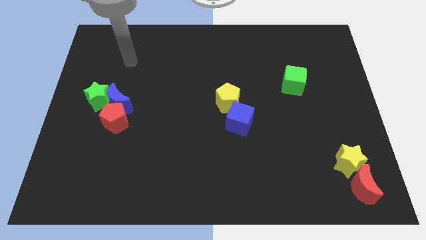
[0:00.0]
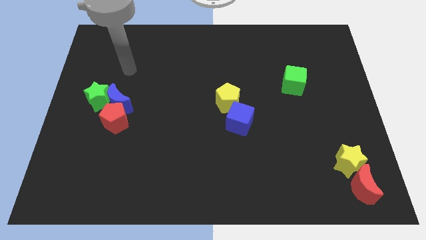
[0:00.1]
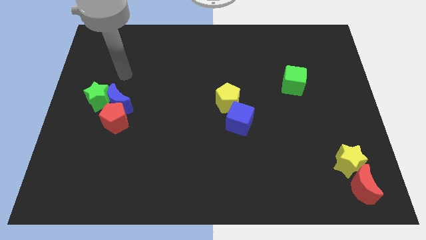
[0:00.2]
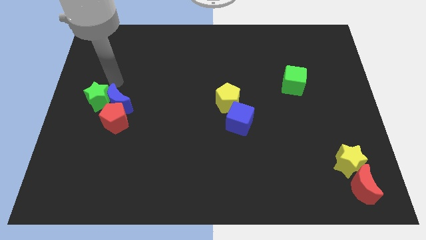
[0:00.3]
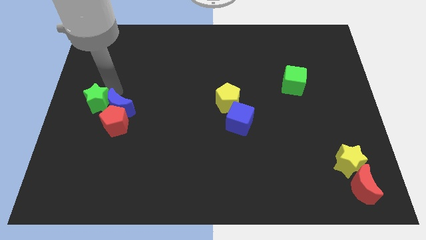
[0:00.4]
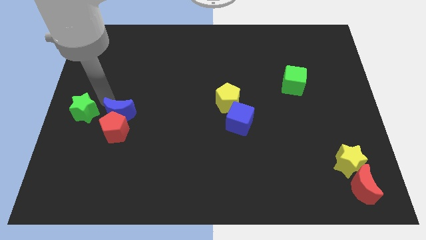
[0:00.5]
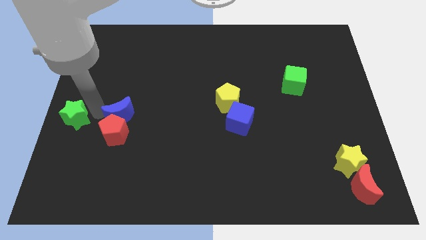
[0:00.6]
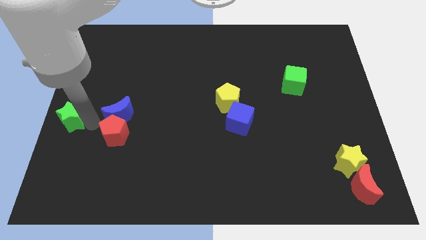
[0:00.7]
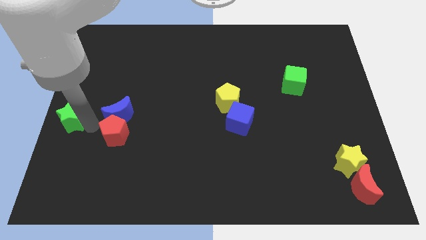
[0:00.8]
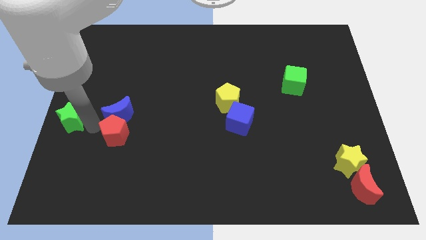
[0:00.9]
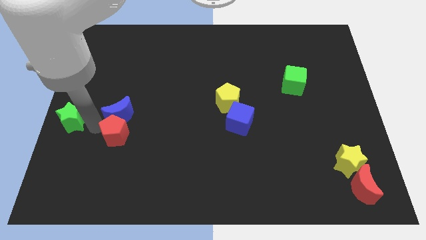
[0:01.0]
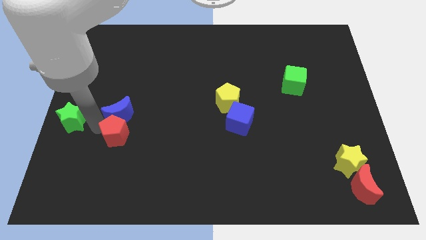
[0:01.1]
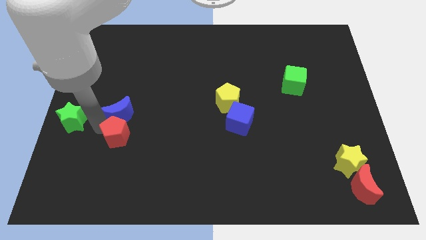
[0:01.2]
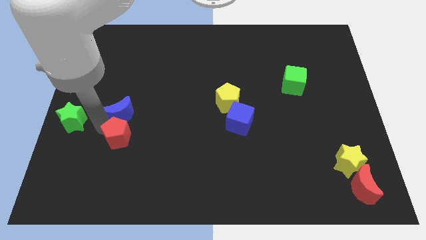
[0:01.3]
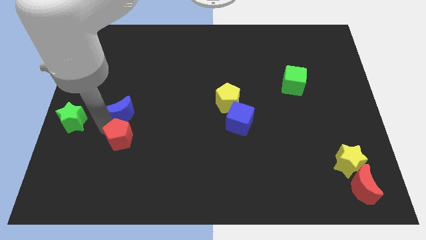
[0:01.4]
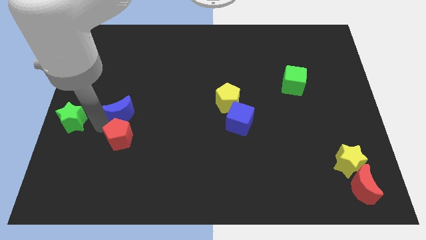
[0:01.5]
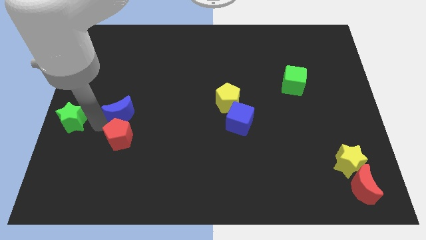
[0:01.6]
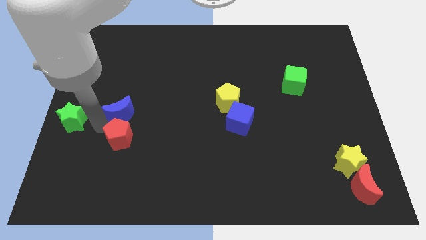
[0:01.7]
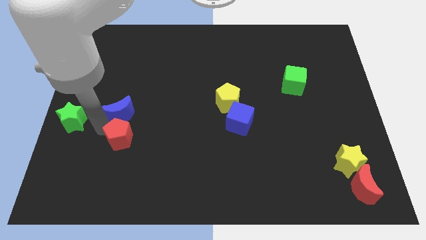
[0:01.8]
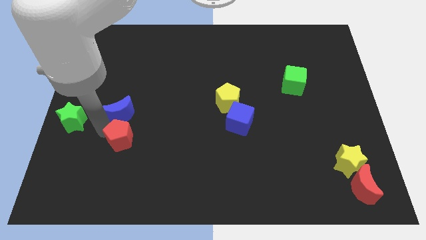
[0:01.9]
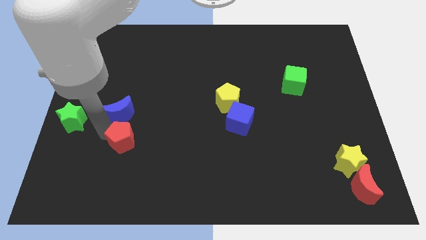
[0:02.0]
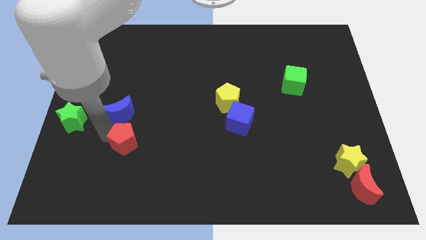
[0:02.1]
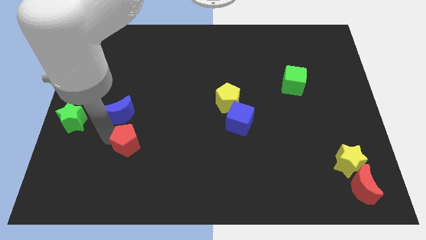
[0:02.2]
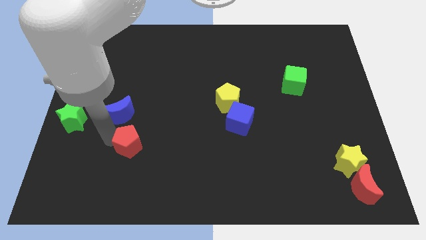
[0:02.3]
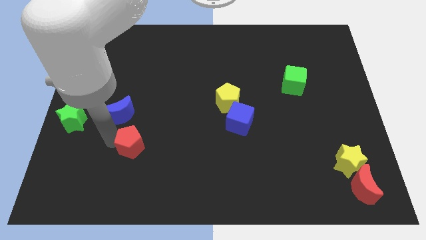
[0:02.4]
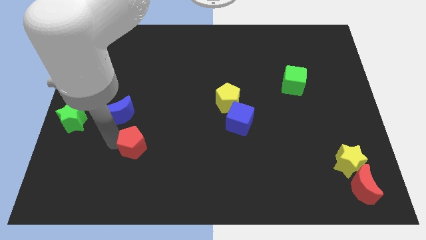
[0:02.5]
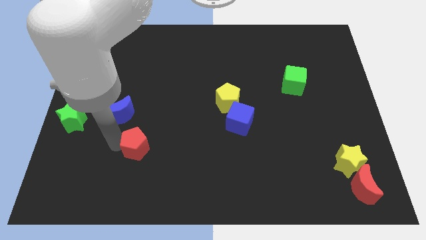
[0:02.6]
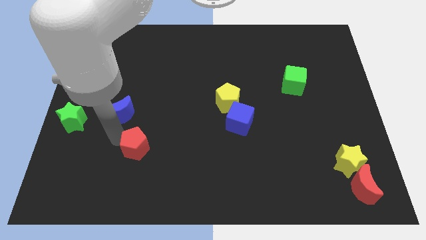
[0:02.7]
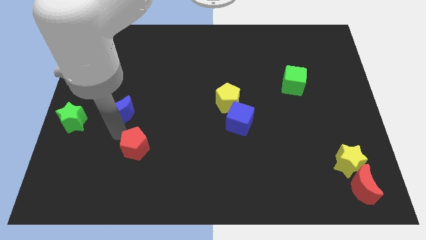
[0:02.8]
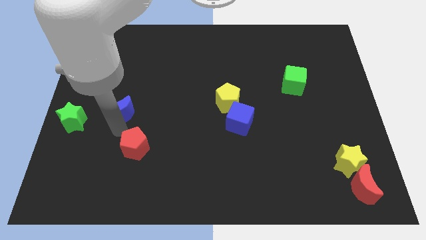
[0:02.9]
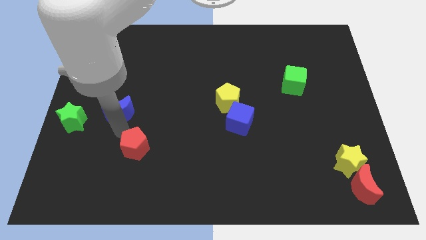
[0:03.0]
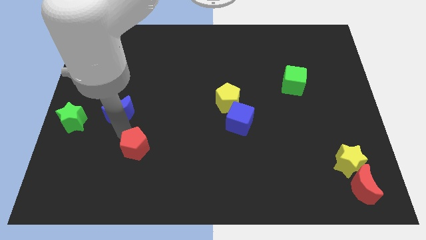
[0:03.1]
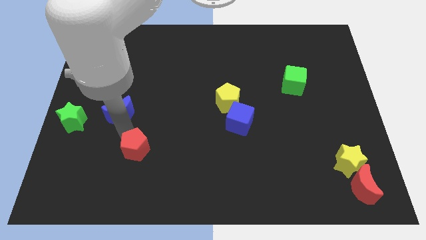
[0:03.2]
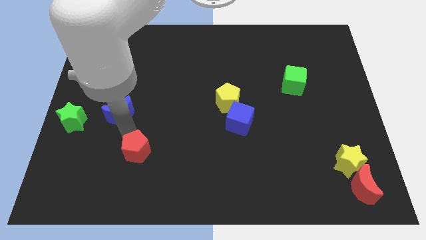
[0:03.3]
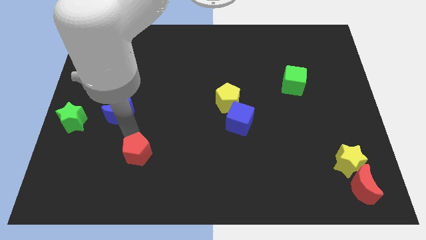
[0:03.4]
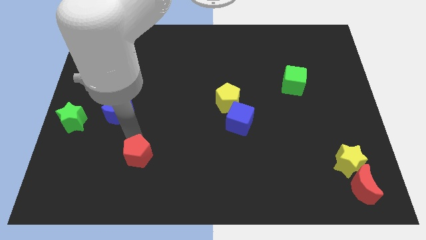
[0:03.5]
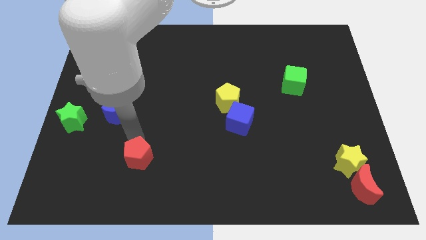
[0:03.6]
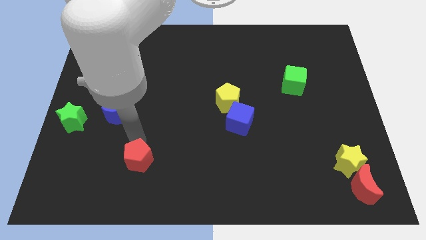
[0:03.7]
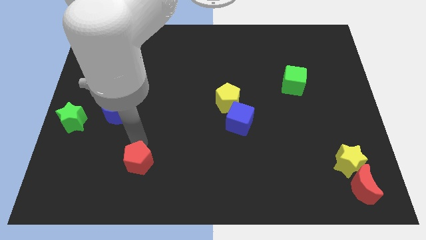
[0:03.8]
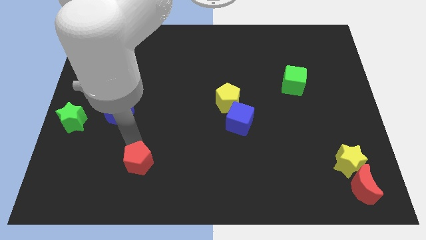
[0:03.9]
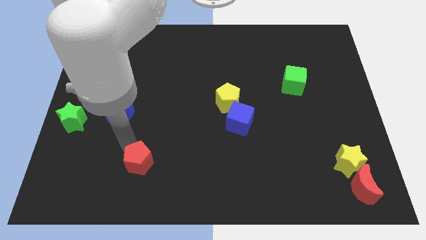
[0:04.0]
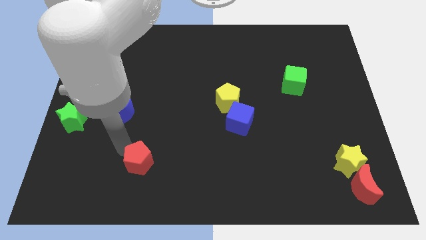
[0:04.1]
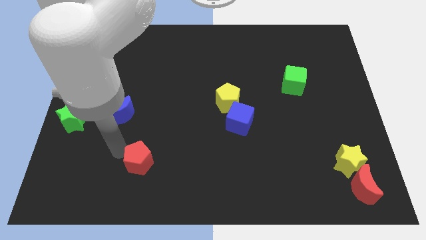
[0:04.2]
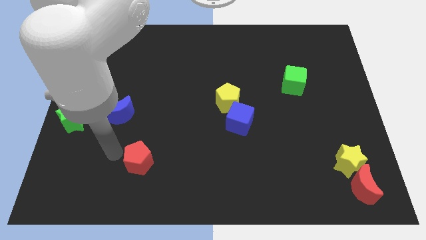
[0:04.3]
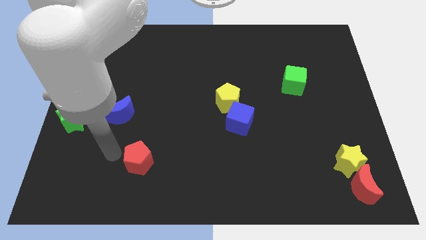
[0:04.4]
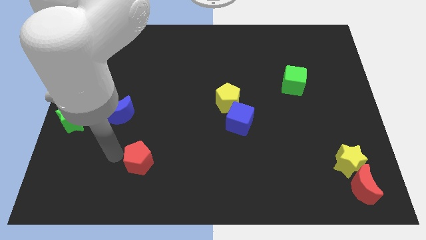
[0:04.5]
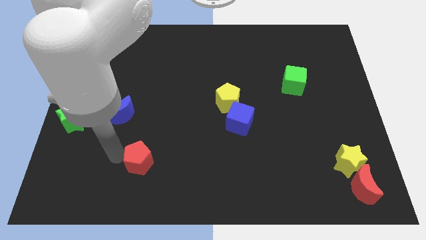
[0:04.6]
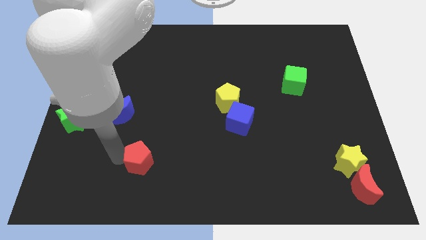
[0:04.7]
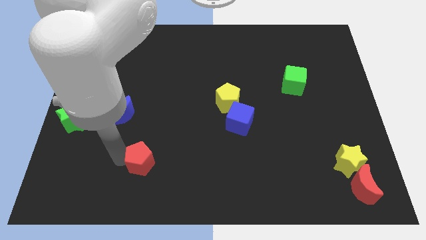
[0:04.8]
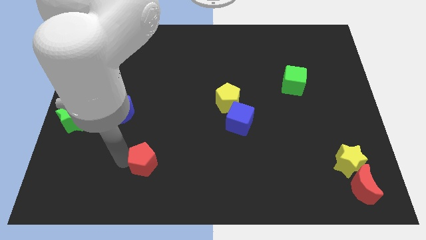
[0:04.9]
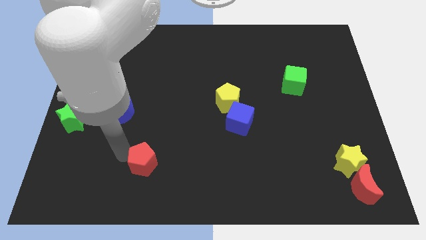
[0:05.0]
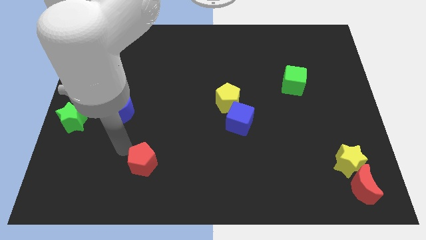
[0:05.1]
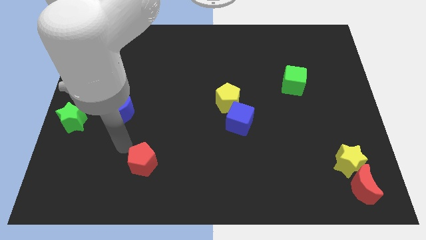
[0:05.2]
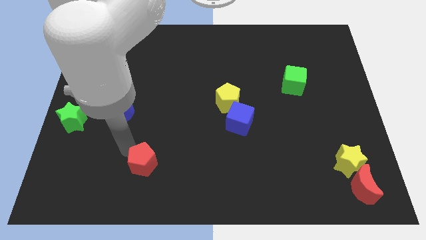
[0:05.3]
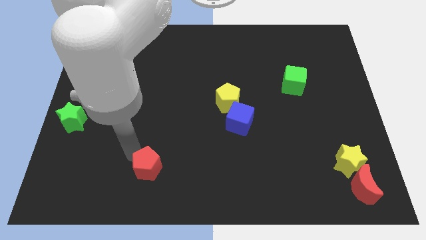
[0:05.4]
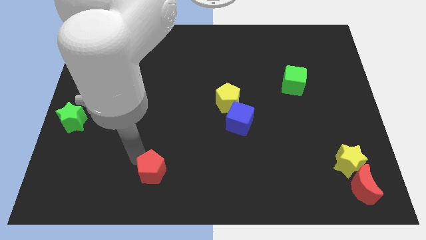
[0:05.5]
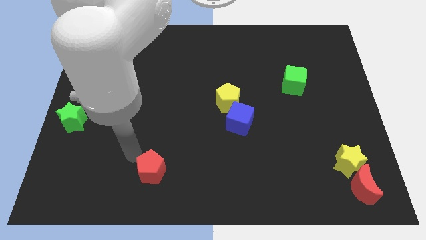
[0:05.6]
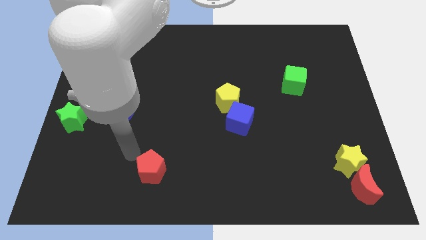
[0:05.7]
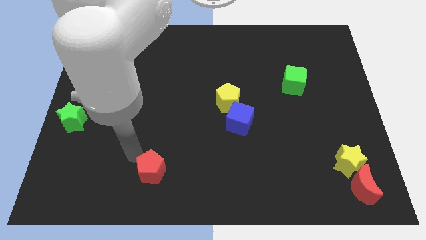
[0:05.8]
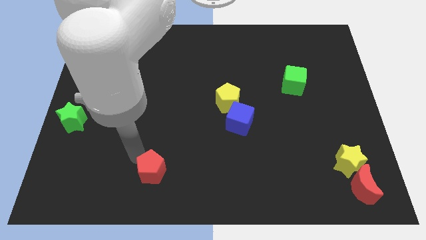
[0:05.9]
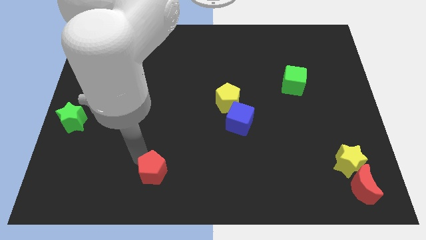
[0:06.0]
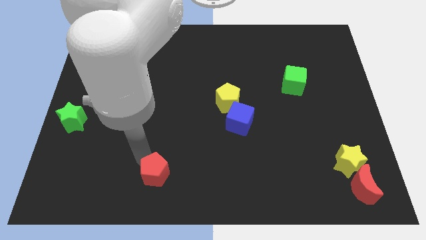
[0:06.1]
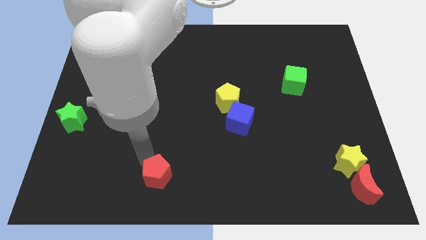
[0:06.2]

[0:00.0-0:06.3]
push the red pentagon to the bottom side

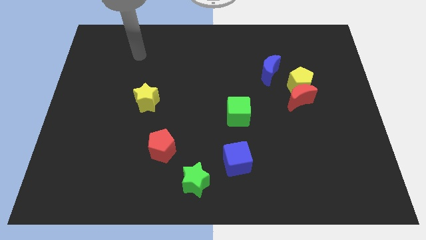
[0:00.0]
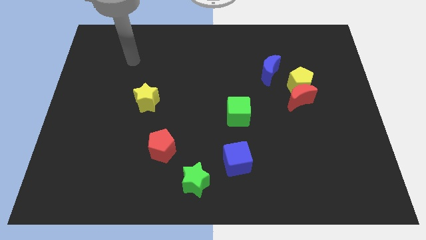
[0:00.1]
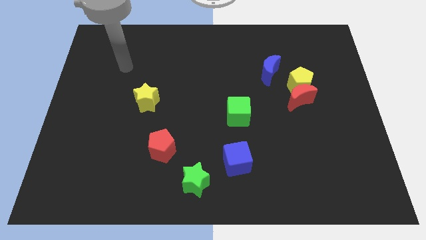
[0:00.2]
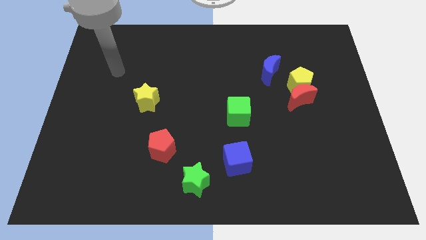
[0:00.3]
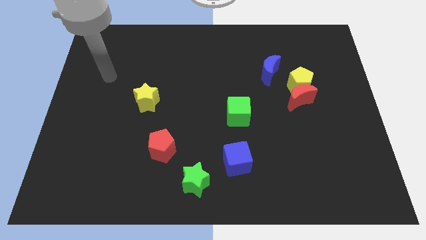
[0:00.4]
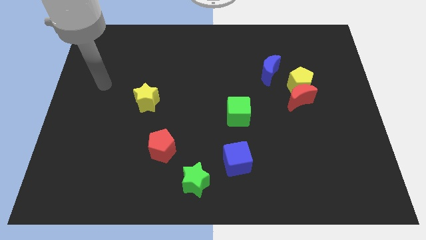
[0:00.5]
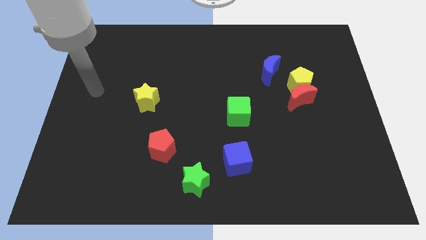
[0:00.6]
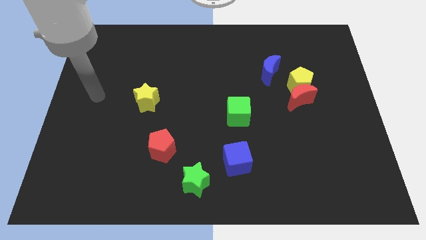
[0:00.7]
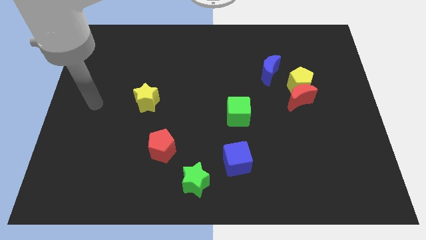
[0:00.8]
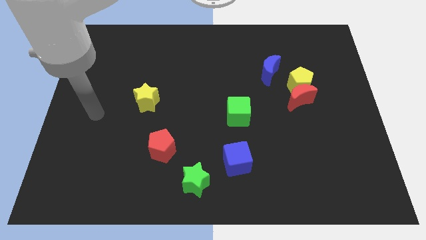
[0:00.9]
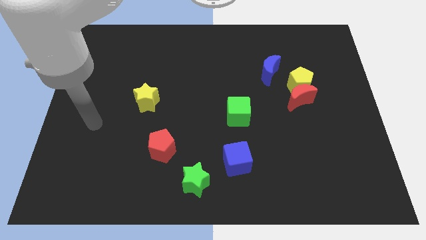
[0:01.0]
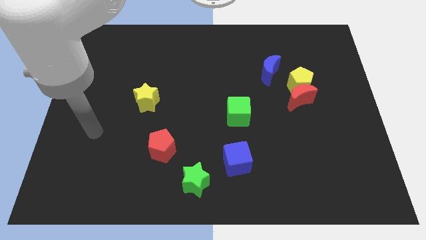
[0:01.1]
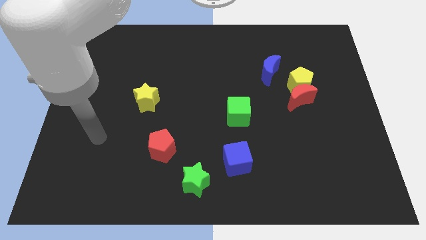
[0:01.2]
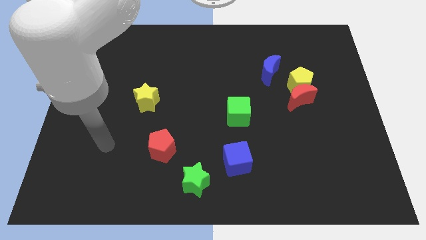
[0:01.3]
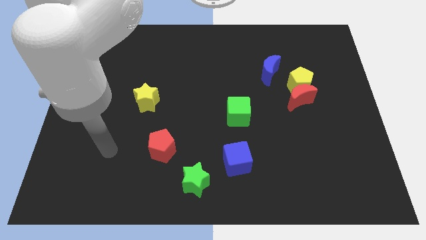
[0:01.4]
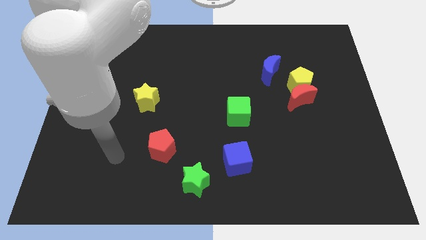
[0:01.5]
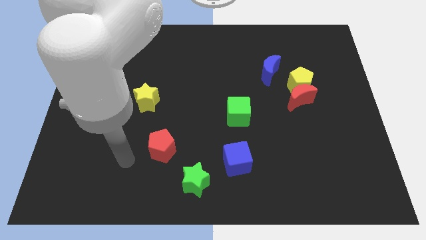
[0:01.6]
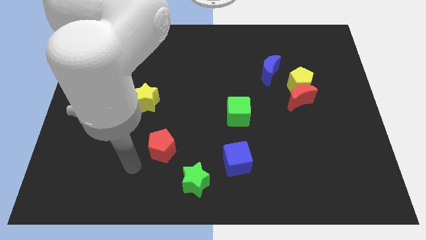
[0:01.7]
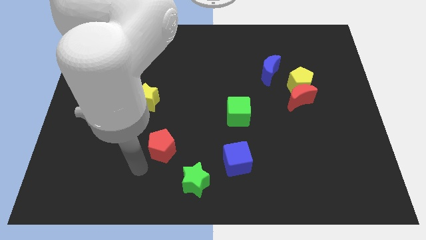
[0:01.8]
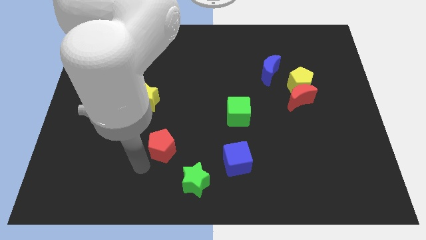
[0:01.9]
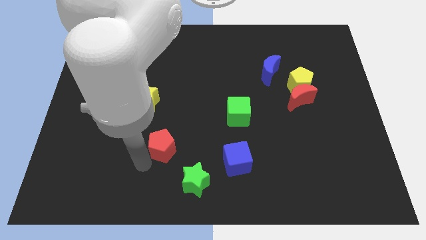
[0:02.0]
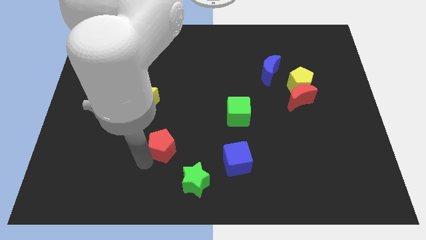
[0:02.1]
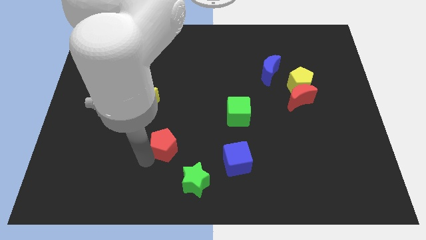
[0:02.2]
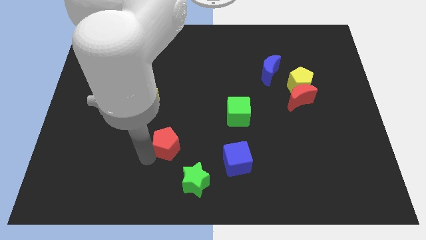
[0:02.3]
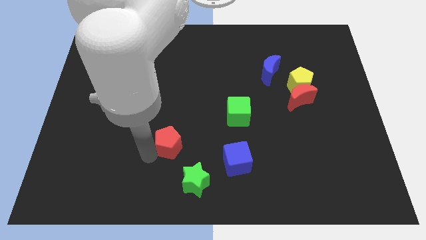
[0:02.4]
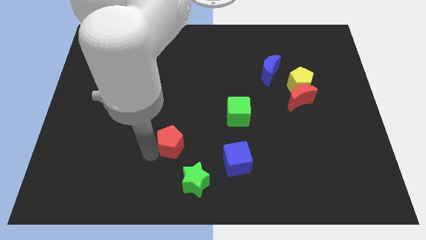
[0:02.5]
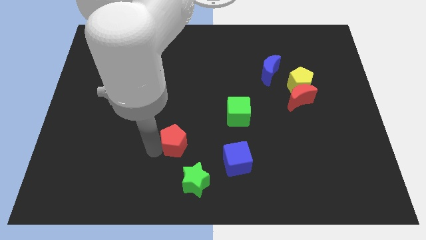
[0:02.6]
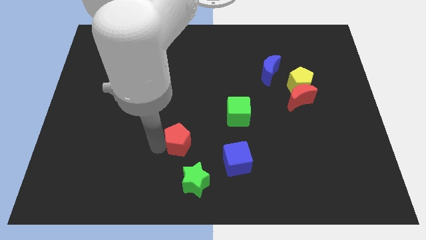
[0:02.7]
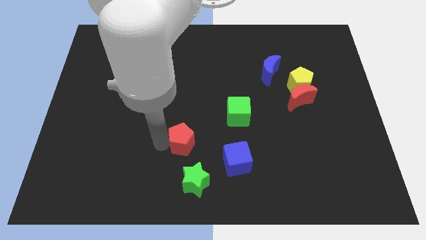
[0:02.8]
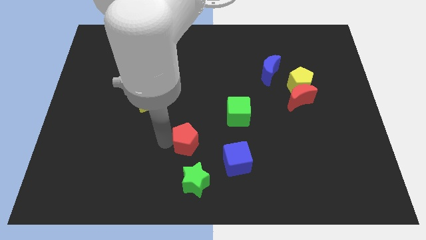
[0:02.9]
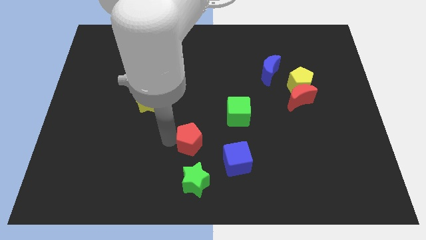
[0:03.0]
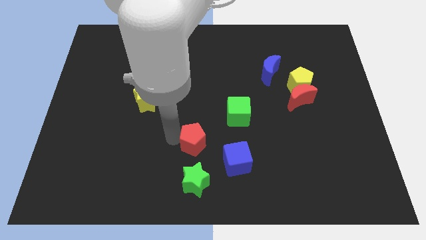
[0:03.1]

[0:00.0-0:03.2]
slide the red pentagon to the center of the board
